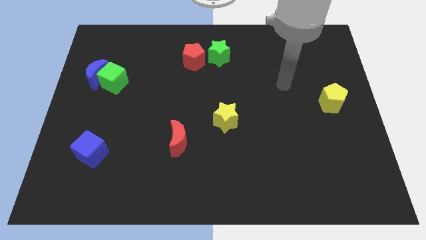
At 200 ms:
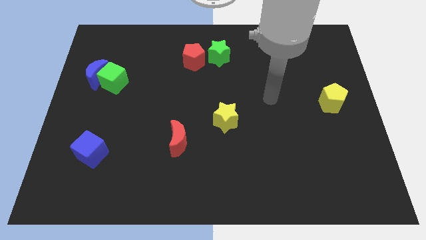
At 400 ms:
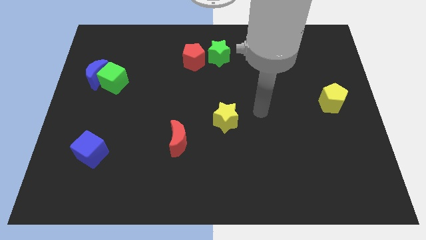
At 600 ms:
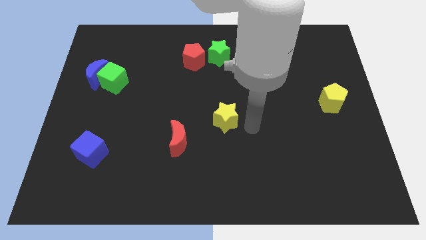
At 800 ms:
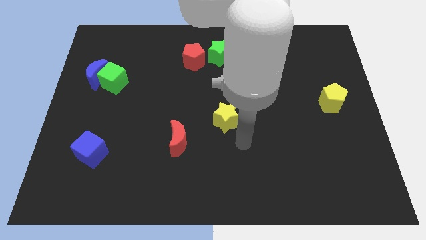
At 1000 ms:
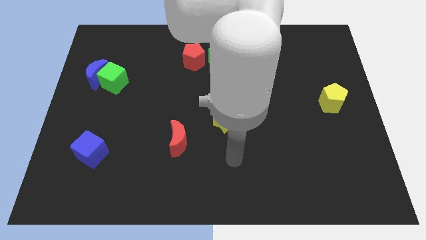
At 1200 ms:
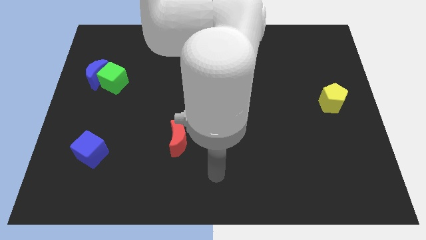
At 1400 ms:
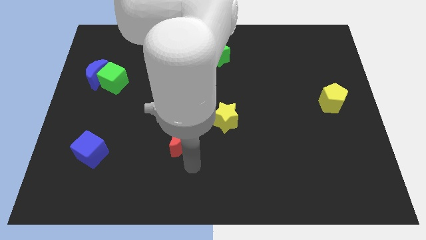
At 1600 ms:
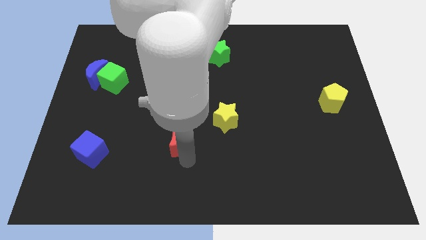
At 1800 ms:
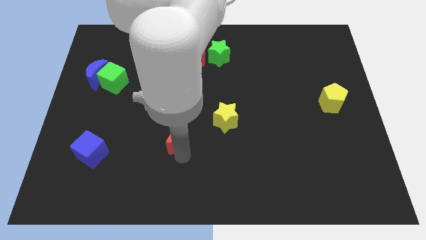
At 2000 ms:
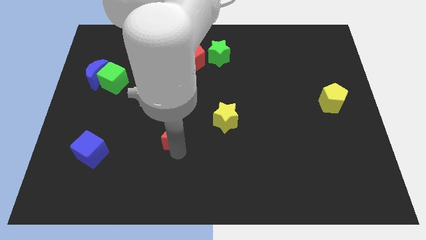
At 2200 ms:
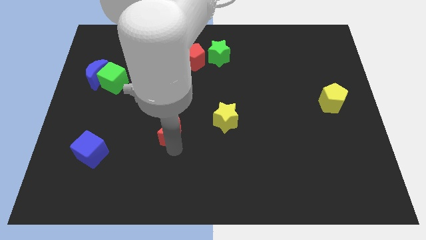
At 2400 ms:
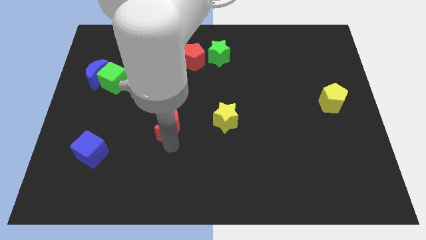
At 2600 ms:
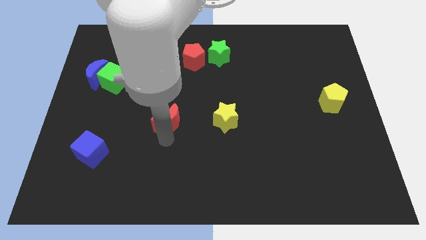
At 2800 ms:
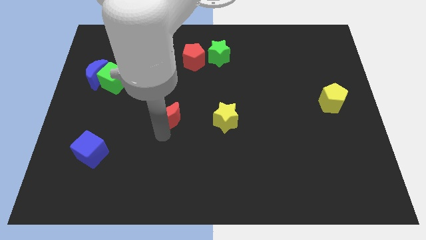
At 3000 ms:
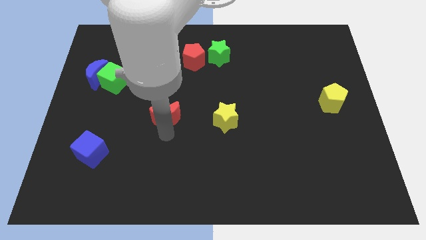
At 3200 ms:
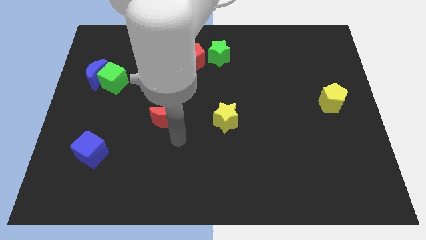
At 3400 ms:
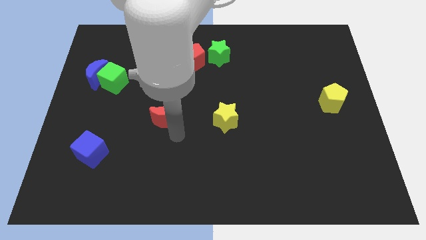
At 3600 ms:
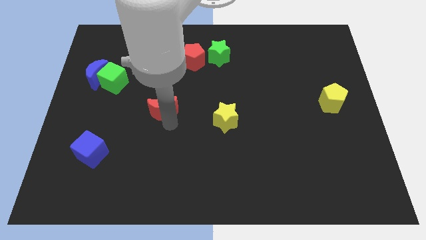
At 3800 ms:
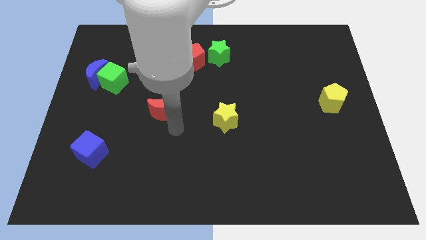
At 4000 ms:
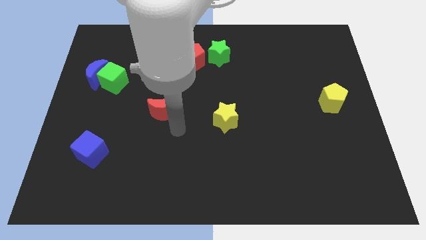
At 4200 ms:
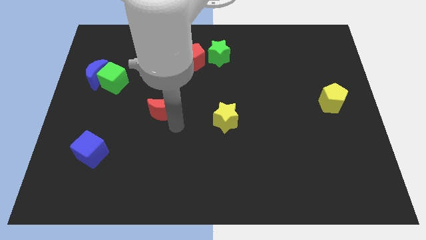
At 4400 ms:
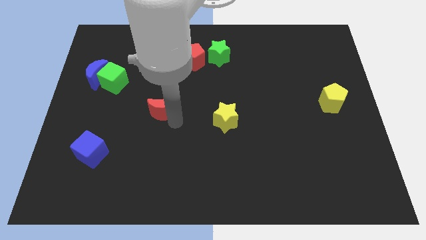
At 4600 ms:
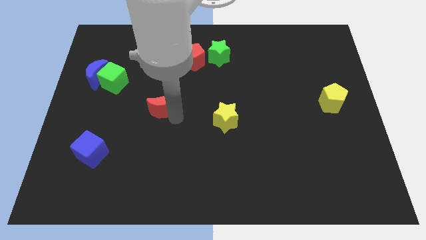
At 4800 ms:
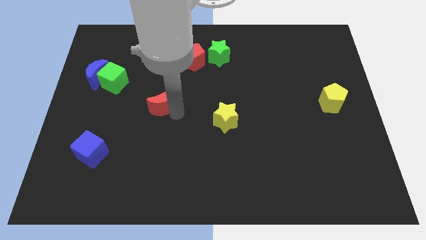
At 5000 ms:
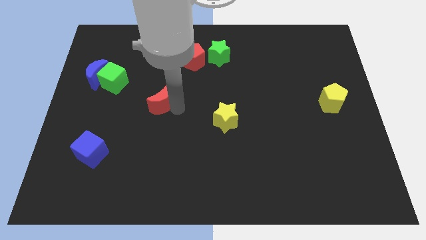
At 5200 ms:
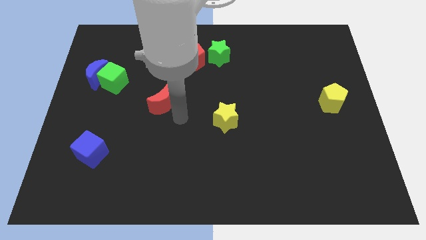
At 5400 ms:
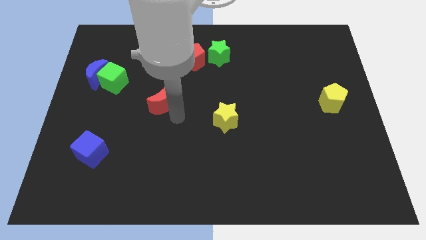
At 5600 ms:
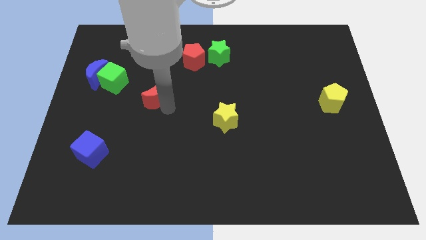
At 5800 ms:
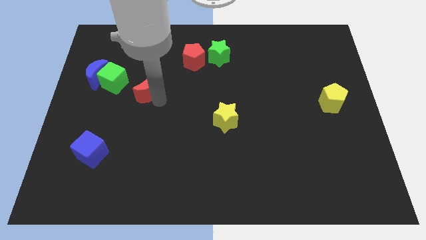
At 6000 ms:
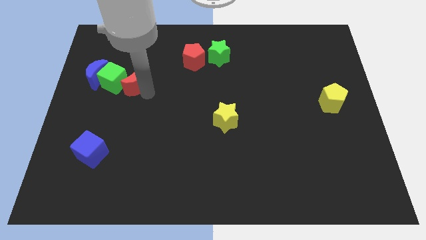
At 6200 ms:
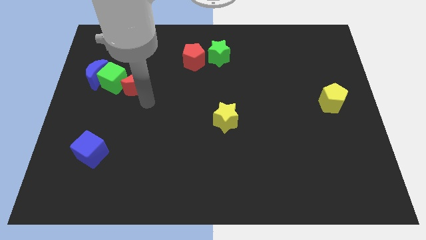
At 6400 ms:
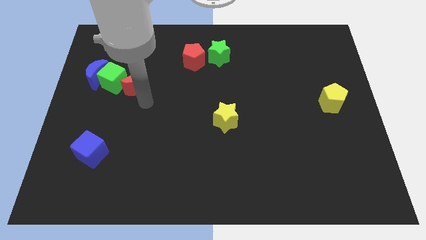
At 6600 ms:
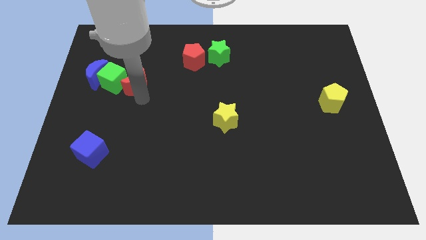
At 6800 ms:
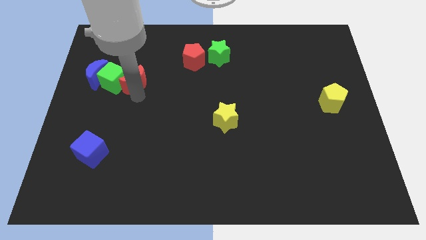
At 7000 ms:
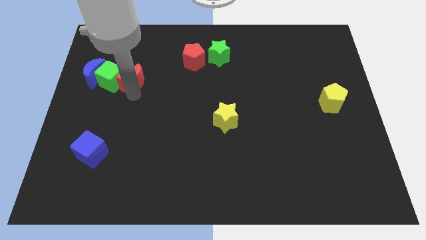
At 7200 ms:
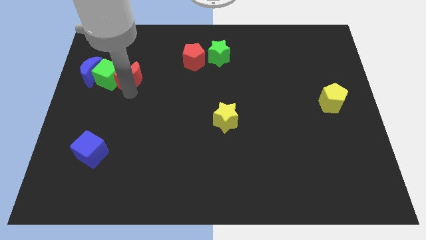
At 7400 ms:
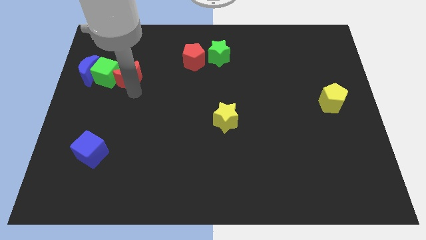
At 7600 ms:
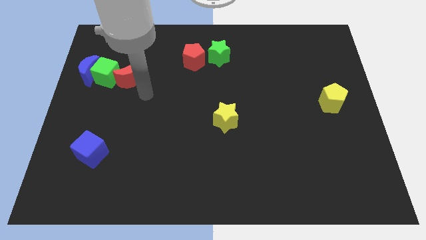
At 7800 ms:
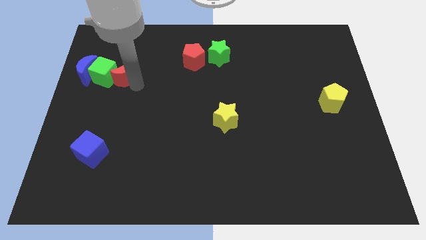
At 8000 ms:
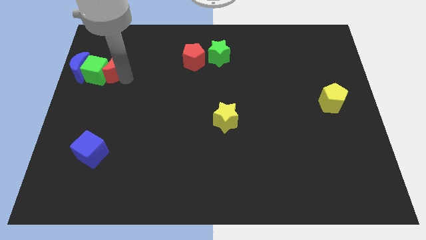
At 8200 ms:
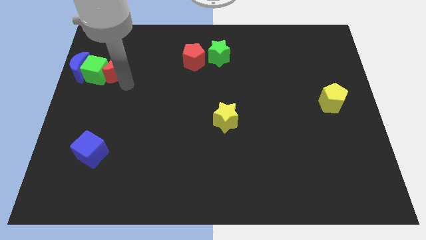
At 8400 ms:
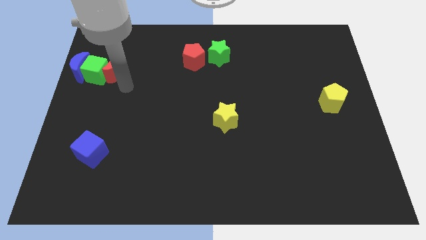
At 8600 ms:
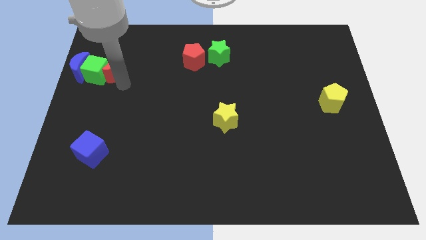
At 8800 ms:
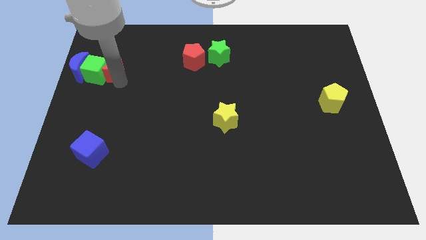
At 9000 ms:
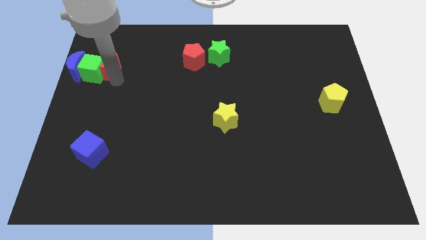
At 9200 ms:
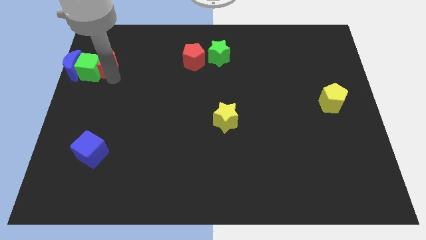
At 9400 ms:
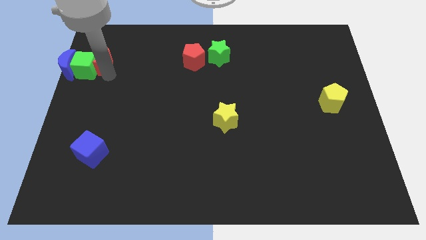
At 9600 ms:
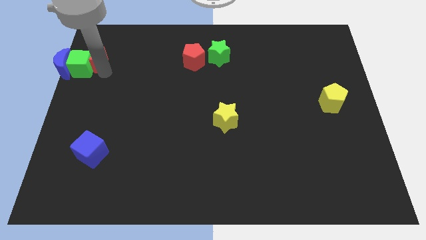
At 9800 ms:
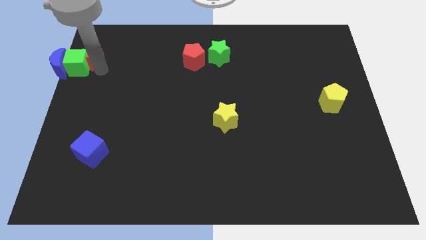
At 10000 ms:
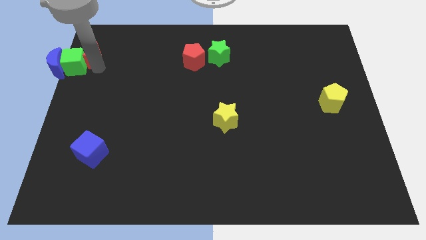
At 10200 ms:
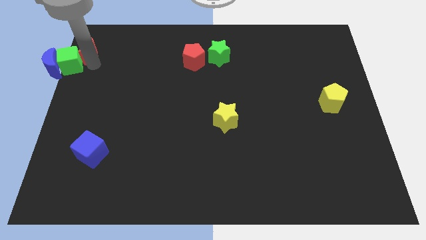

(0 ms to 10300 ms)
slide the red moon to the top left corner
